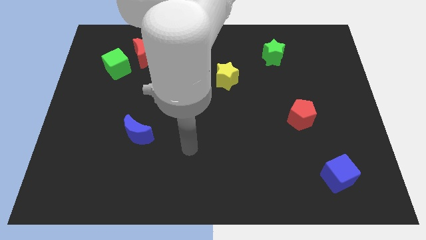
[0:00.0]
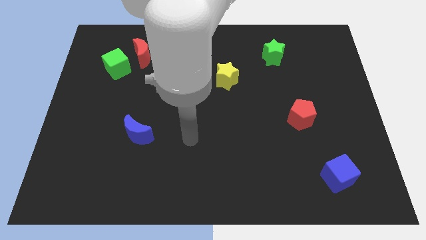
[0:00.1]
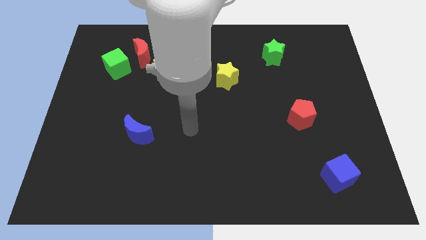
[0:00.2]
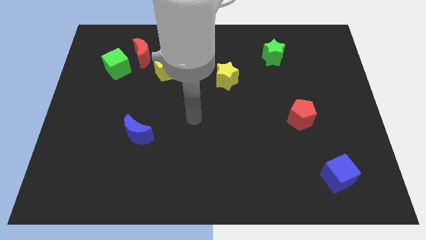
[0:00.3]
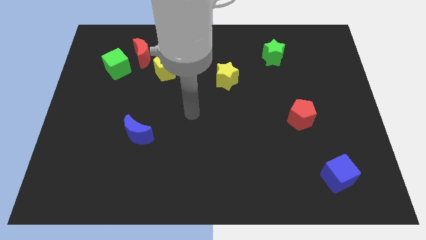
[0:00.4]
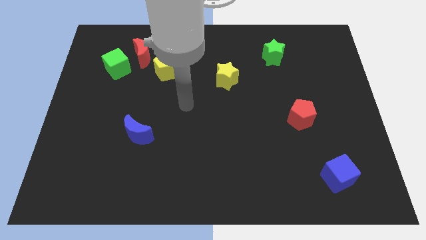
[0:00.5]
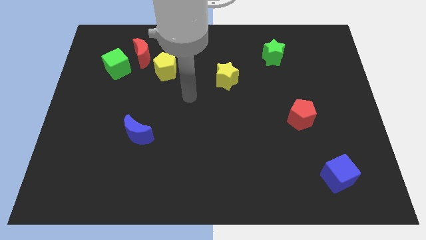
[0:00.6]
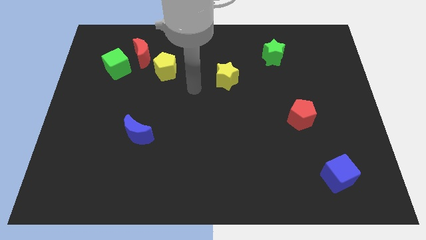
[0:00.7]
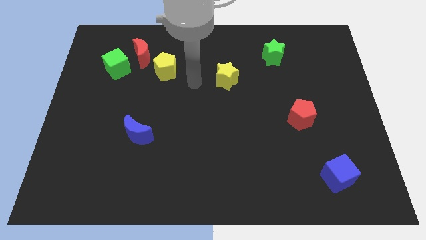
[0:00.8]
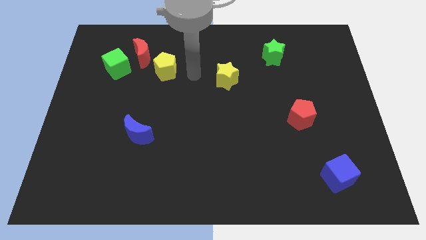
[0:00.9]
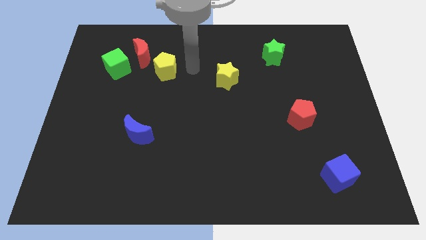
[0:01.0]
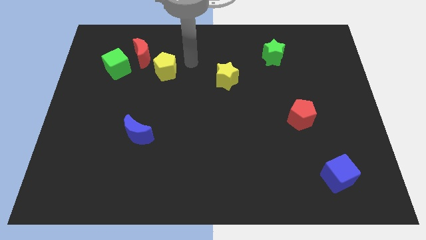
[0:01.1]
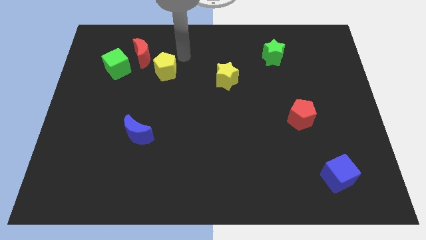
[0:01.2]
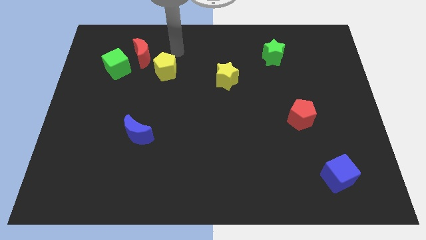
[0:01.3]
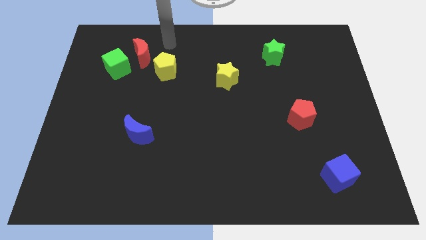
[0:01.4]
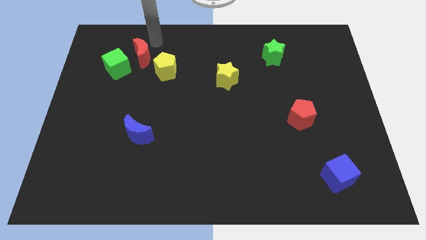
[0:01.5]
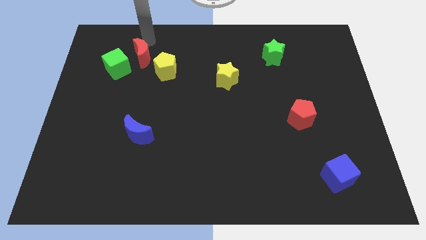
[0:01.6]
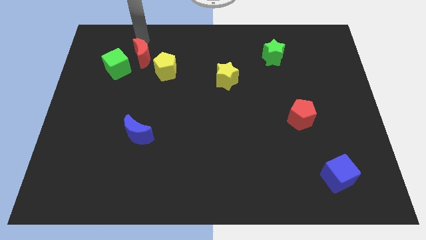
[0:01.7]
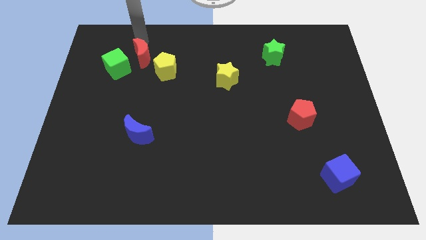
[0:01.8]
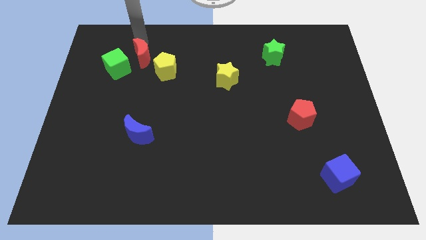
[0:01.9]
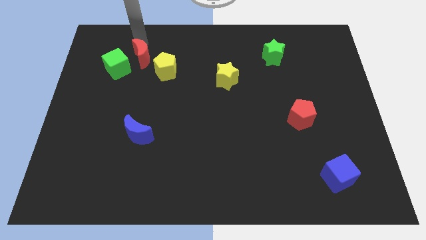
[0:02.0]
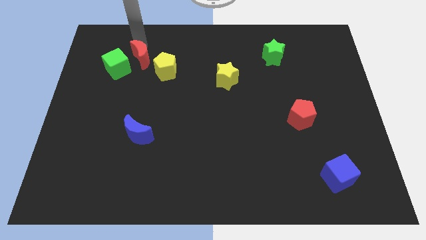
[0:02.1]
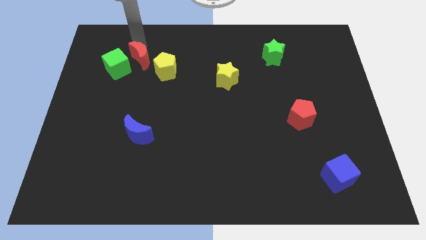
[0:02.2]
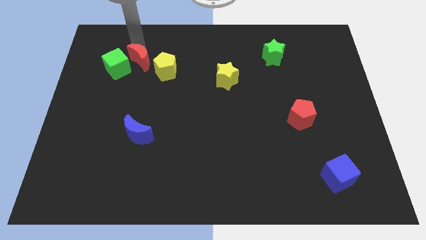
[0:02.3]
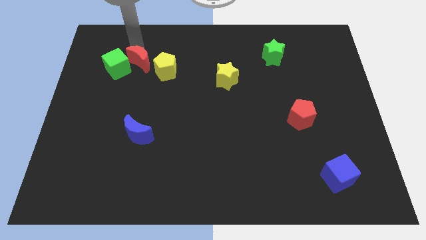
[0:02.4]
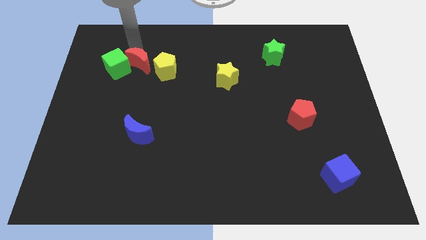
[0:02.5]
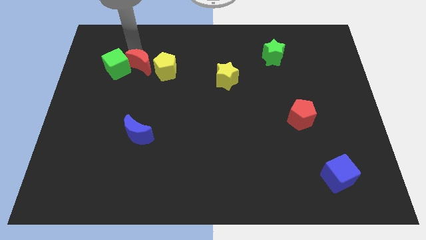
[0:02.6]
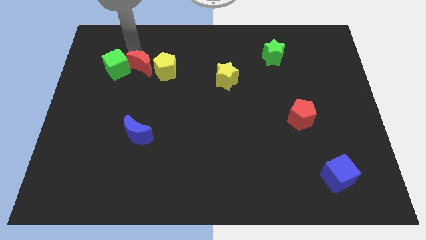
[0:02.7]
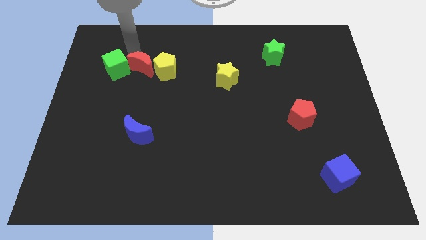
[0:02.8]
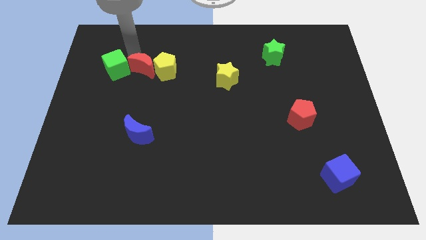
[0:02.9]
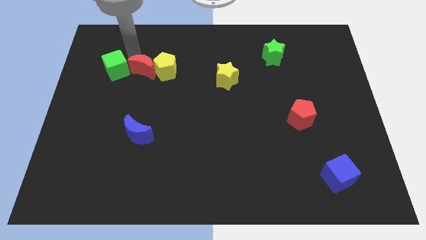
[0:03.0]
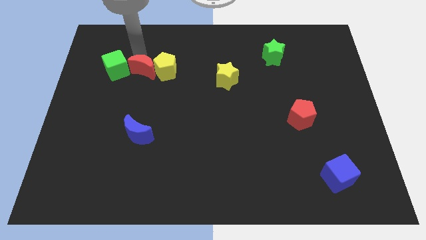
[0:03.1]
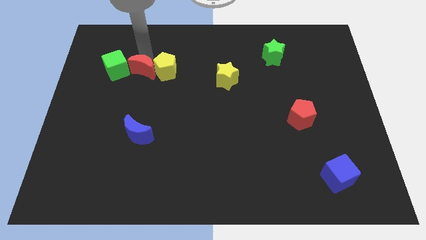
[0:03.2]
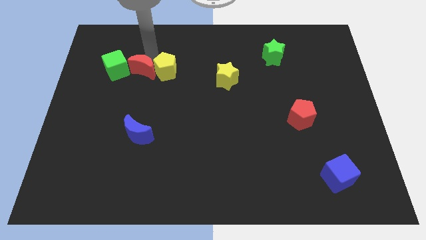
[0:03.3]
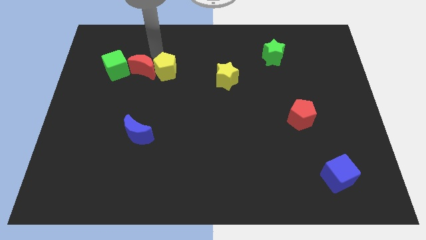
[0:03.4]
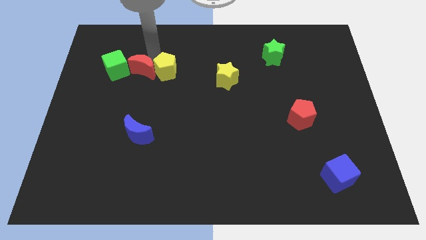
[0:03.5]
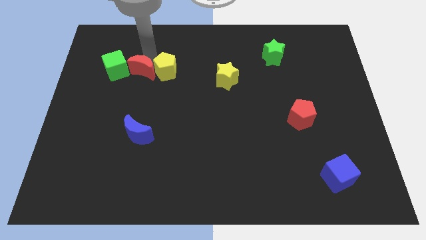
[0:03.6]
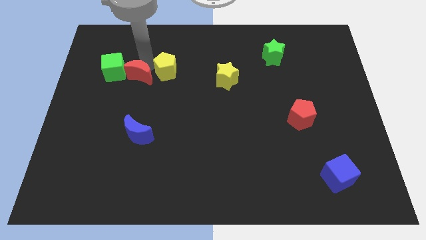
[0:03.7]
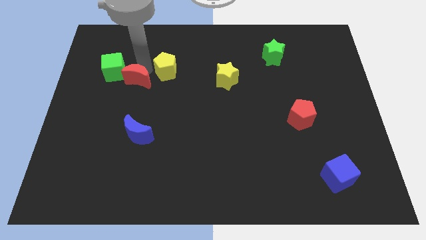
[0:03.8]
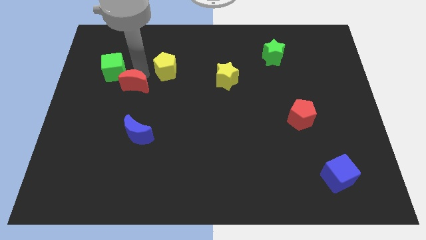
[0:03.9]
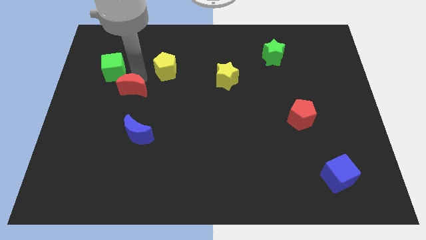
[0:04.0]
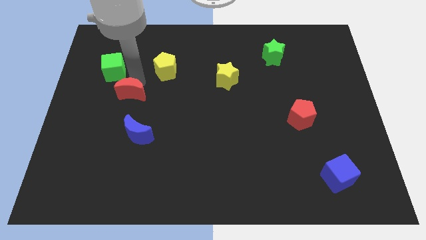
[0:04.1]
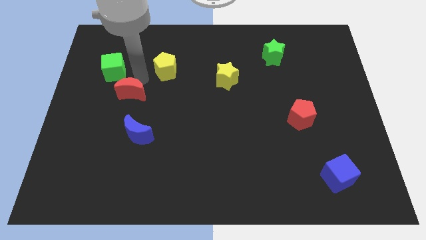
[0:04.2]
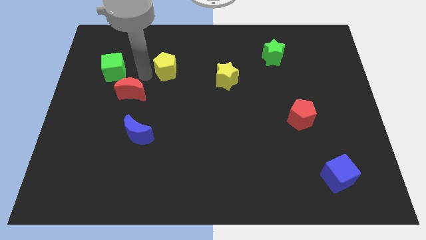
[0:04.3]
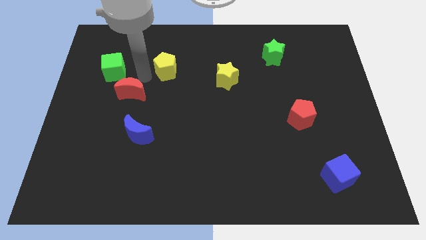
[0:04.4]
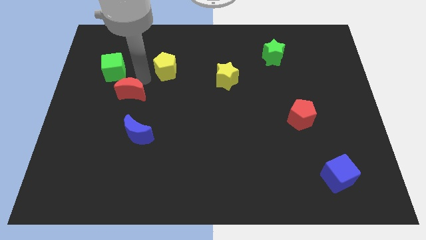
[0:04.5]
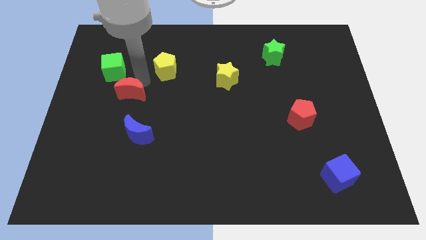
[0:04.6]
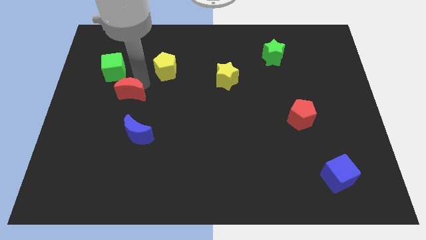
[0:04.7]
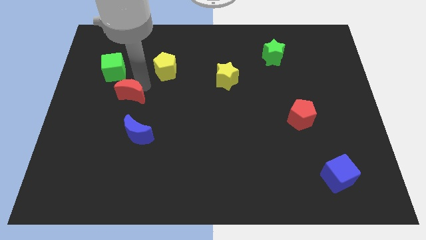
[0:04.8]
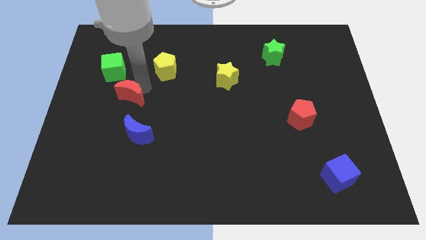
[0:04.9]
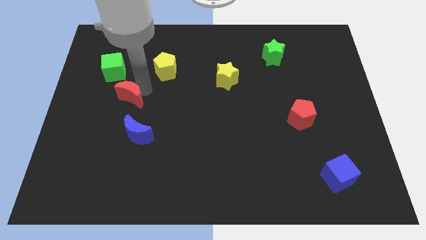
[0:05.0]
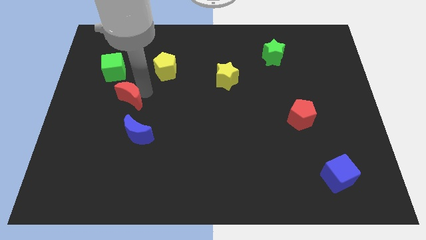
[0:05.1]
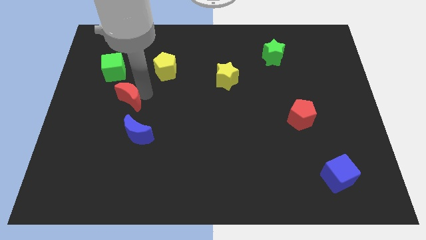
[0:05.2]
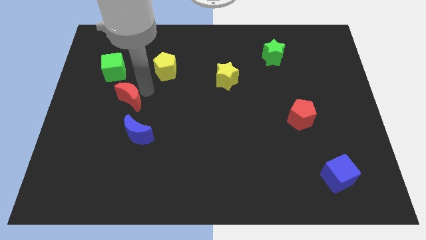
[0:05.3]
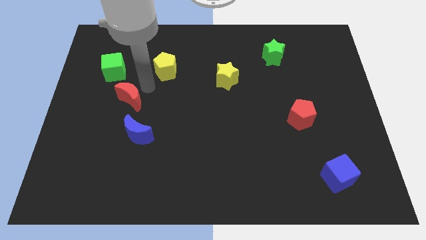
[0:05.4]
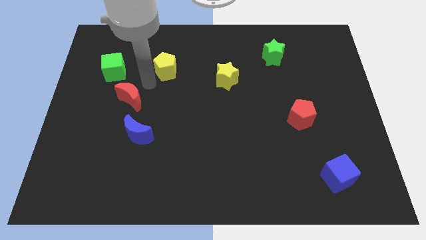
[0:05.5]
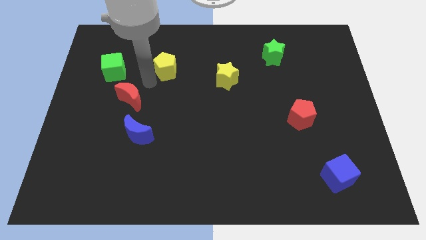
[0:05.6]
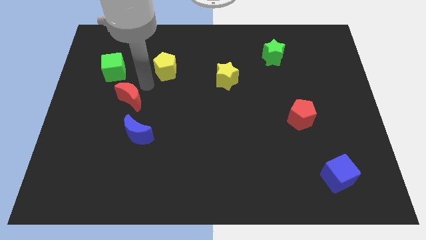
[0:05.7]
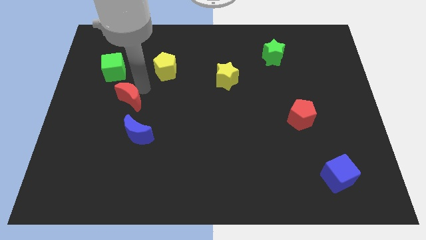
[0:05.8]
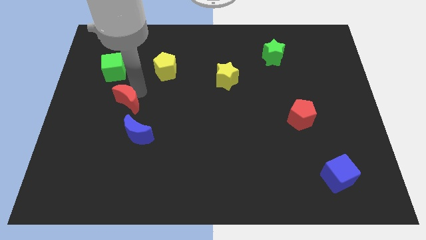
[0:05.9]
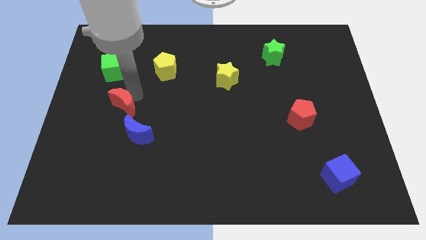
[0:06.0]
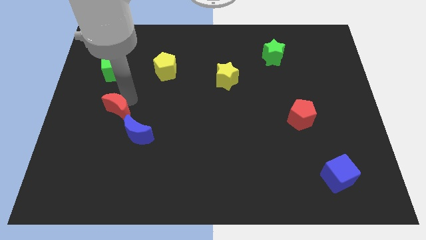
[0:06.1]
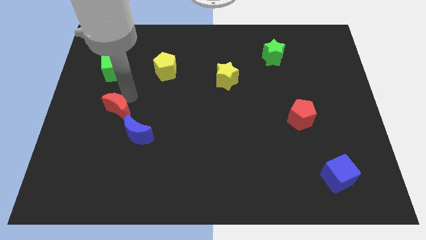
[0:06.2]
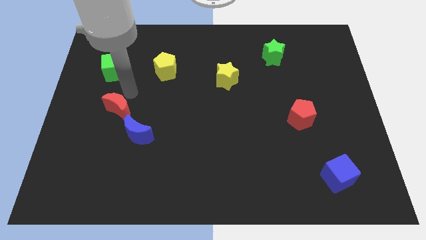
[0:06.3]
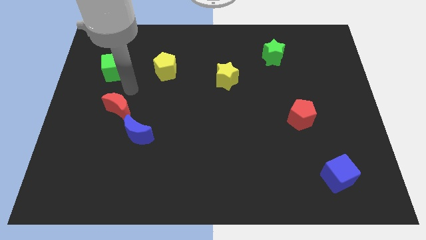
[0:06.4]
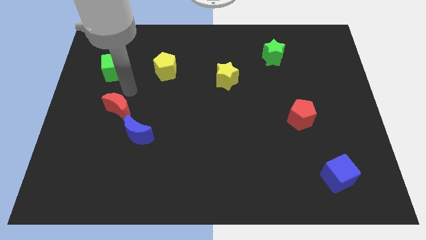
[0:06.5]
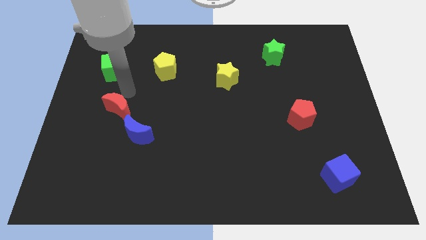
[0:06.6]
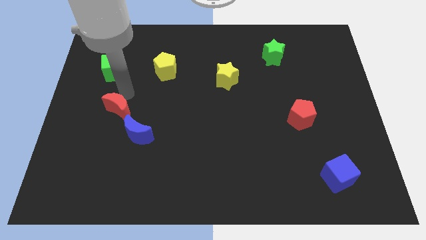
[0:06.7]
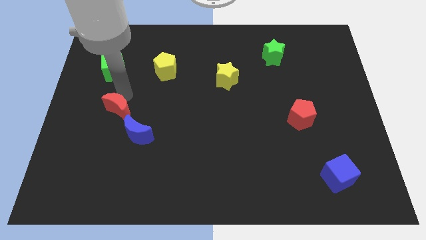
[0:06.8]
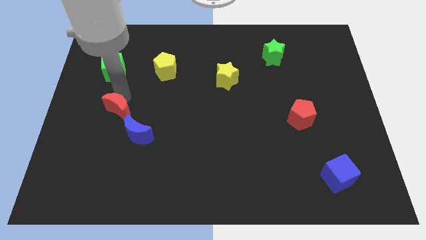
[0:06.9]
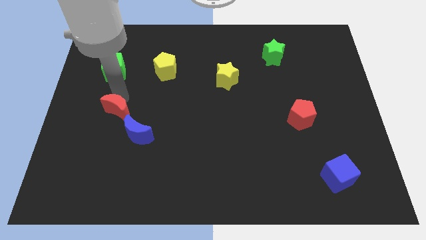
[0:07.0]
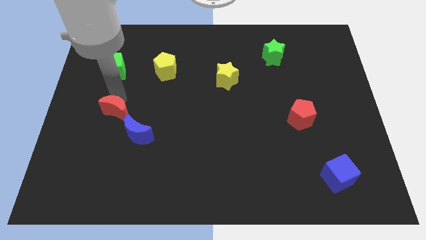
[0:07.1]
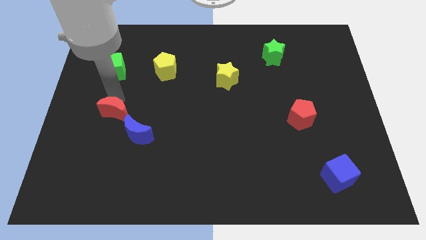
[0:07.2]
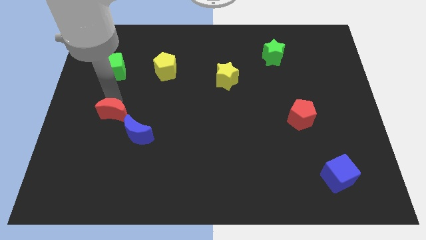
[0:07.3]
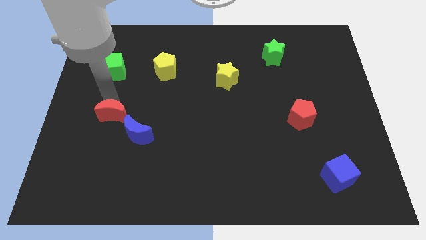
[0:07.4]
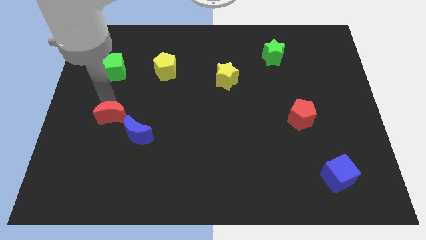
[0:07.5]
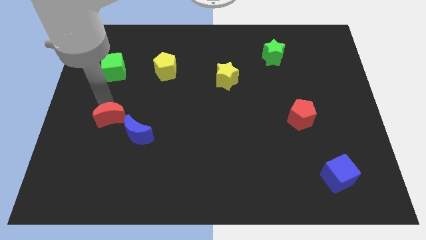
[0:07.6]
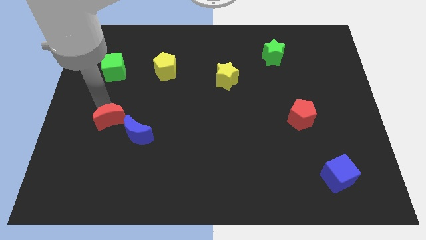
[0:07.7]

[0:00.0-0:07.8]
move the red moon down
